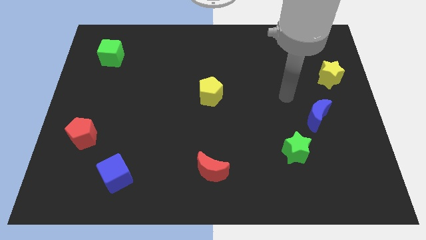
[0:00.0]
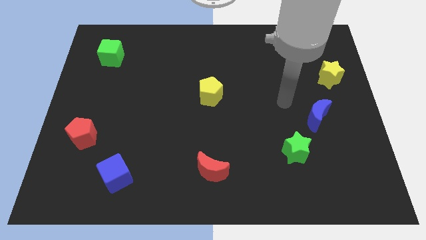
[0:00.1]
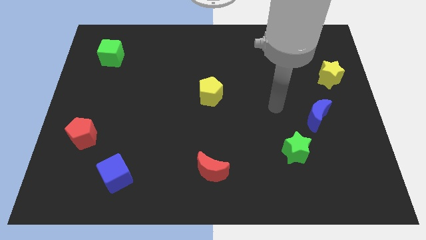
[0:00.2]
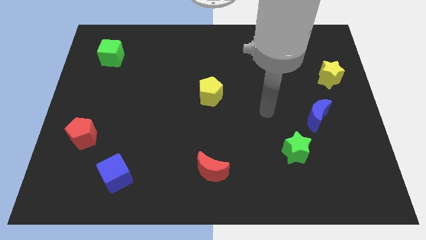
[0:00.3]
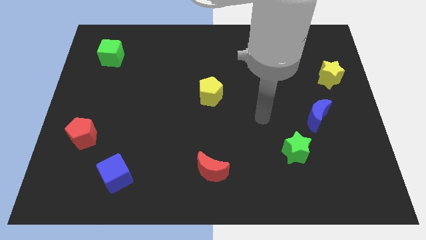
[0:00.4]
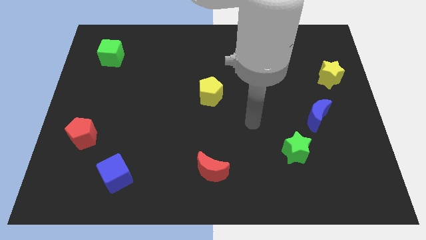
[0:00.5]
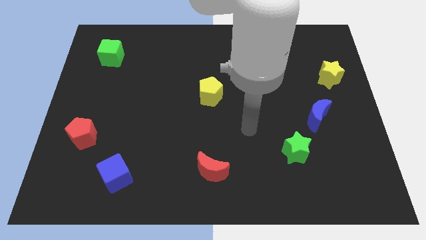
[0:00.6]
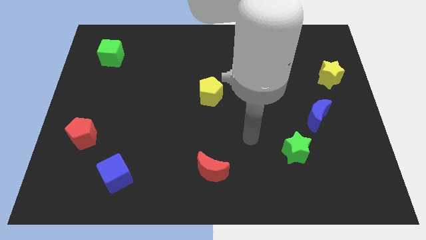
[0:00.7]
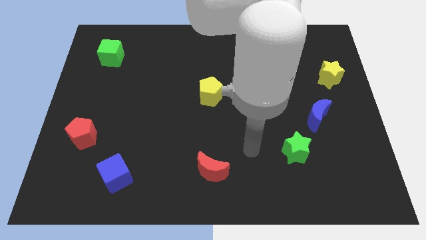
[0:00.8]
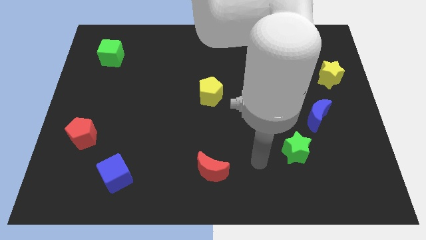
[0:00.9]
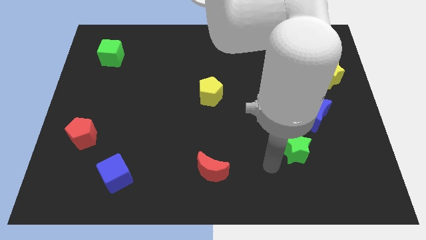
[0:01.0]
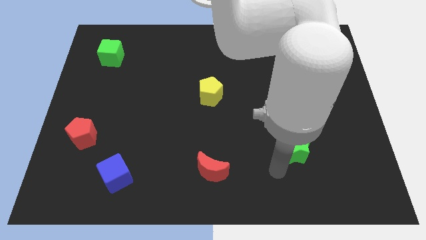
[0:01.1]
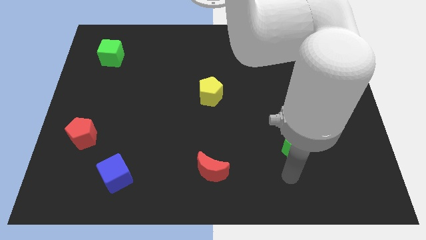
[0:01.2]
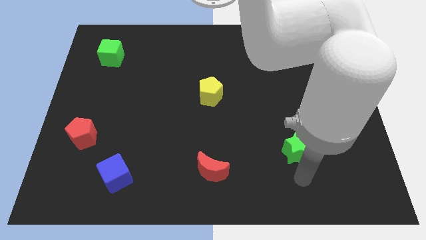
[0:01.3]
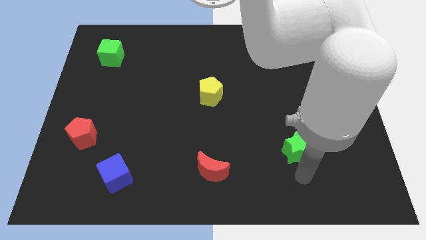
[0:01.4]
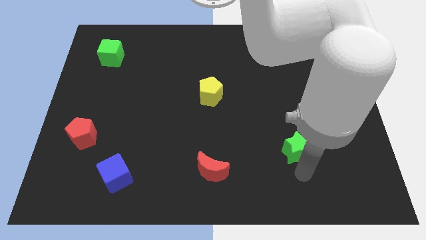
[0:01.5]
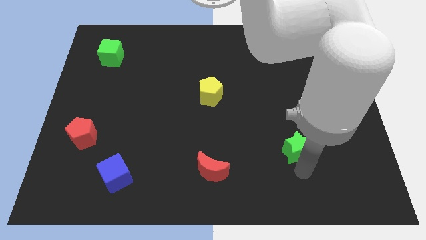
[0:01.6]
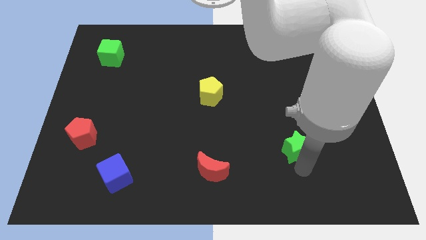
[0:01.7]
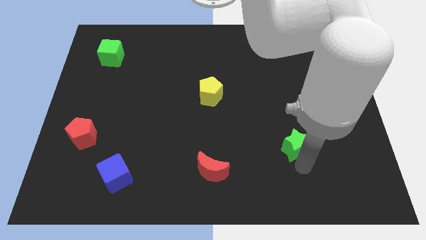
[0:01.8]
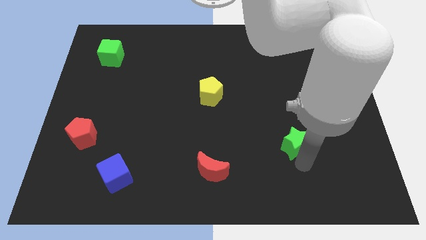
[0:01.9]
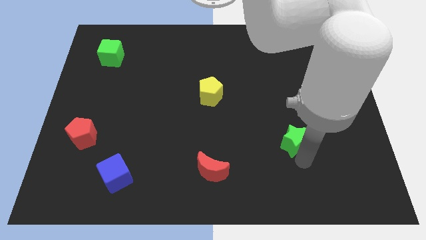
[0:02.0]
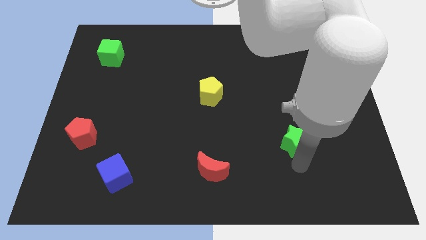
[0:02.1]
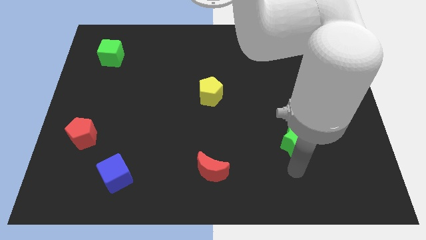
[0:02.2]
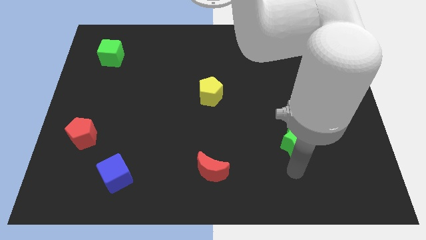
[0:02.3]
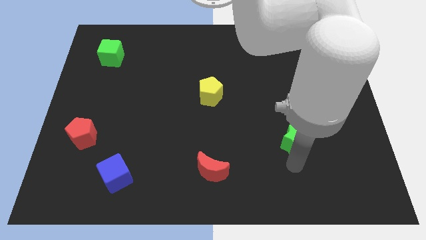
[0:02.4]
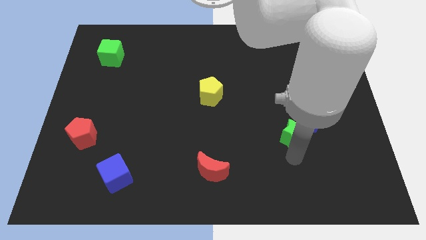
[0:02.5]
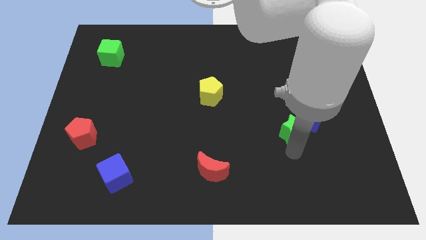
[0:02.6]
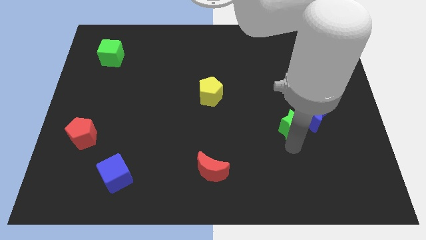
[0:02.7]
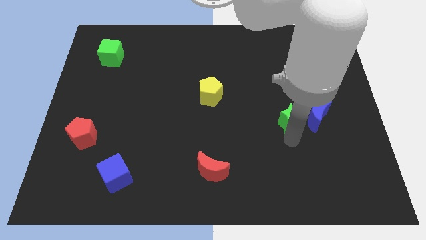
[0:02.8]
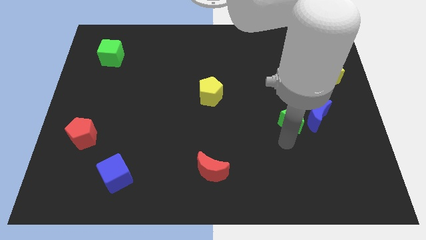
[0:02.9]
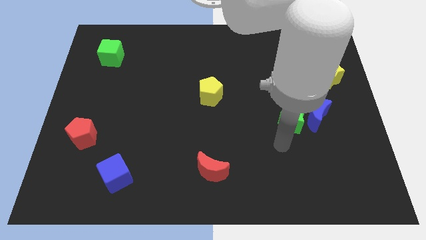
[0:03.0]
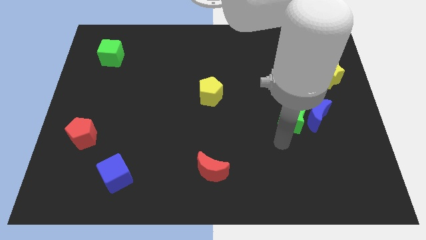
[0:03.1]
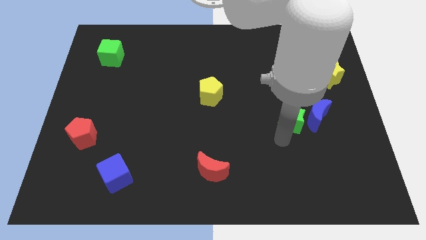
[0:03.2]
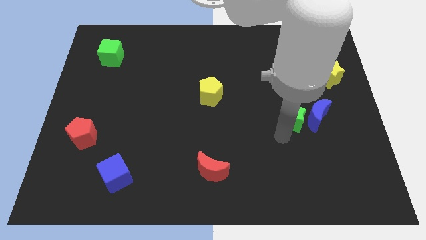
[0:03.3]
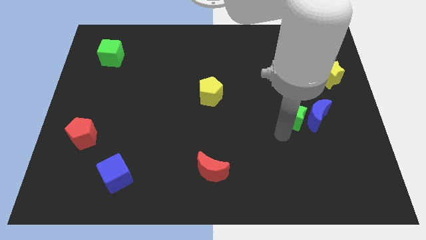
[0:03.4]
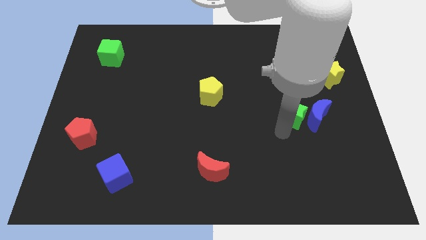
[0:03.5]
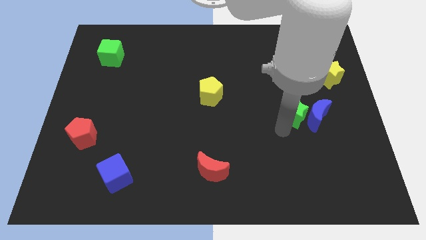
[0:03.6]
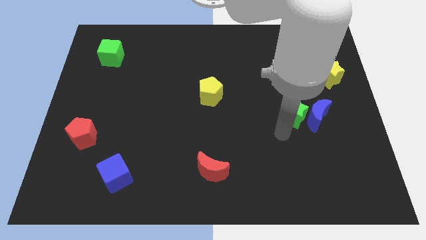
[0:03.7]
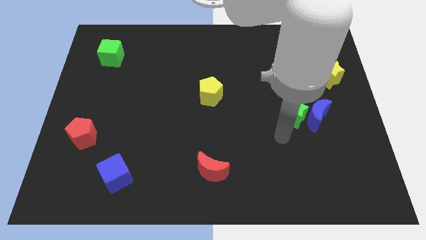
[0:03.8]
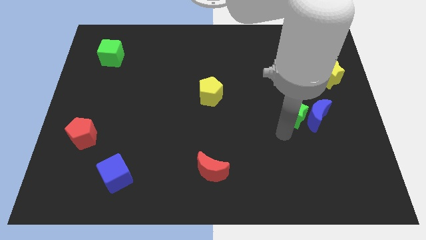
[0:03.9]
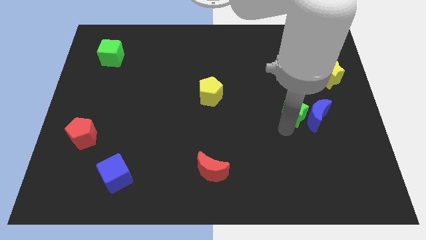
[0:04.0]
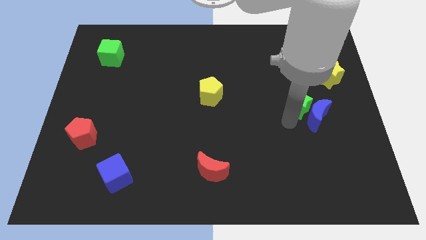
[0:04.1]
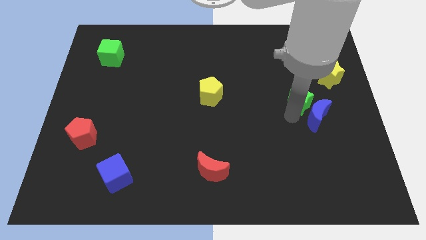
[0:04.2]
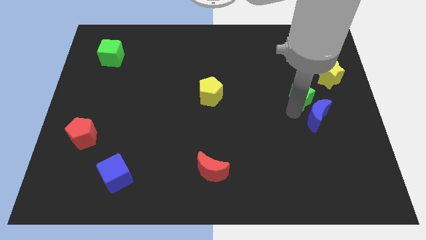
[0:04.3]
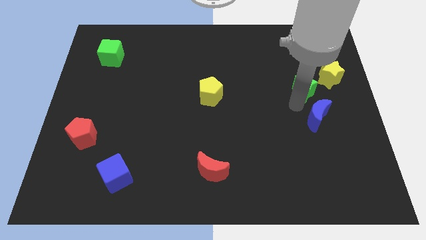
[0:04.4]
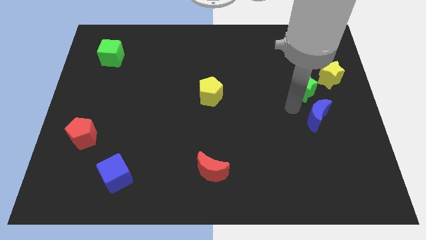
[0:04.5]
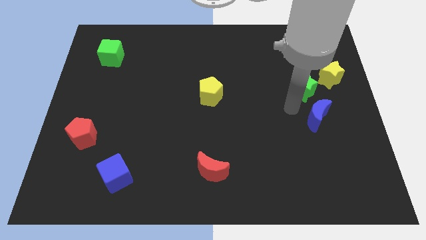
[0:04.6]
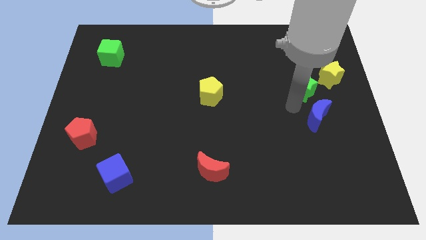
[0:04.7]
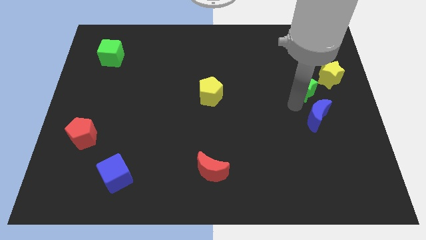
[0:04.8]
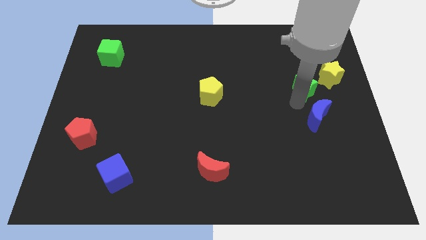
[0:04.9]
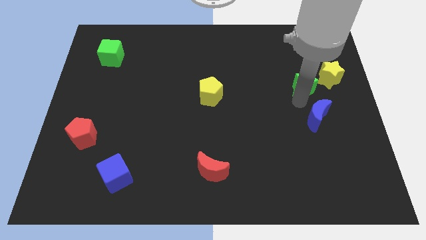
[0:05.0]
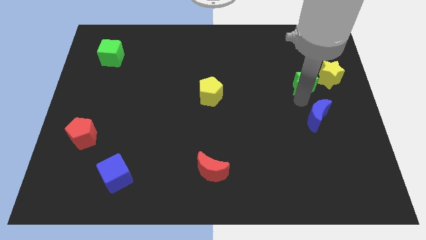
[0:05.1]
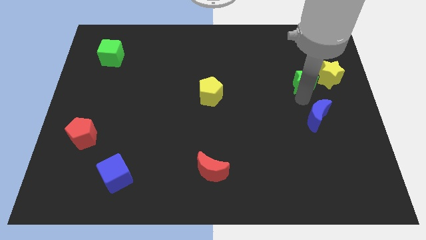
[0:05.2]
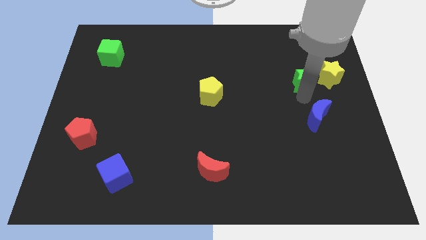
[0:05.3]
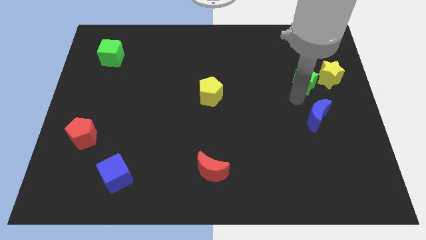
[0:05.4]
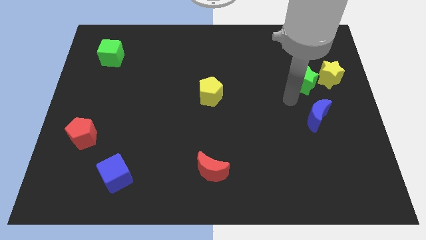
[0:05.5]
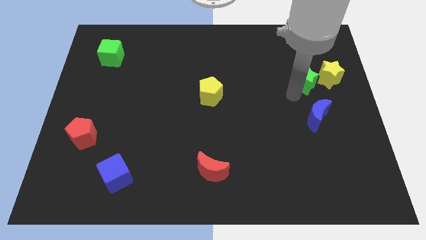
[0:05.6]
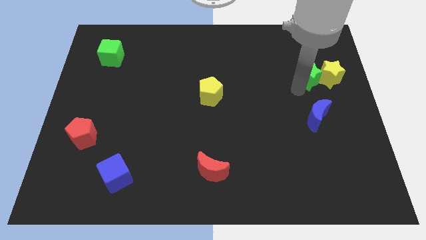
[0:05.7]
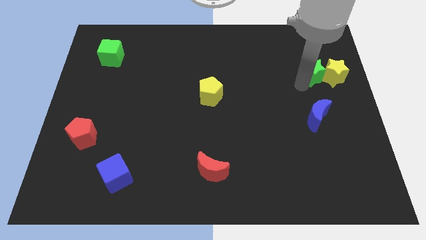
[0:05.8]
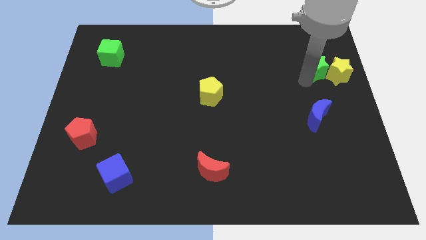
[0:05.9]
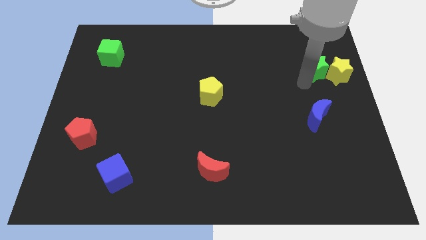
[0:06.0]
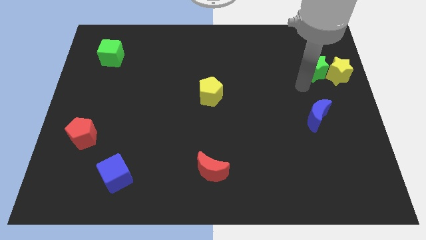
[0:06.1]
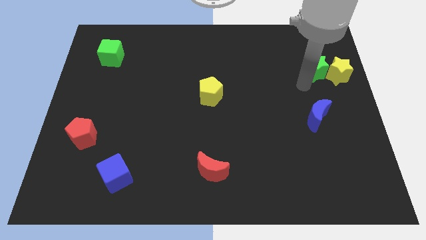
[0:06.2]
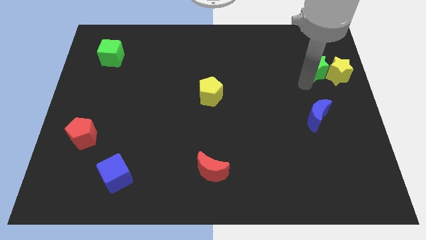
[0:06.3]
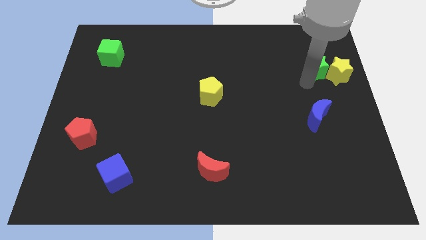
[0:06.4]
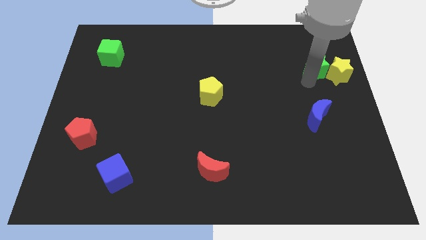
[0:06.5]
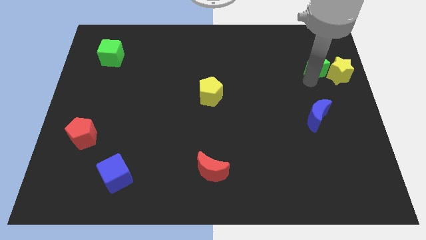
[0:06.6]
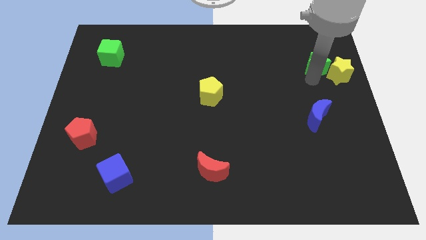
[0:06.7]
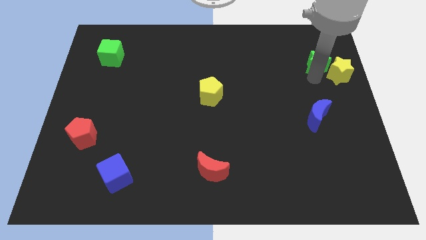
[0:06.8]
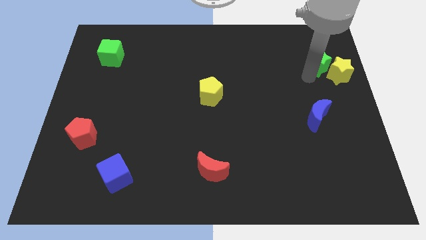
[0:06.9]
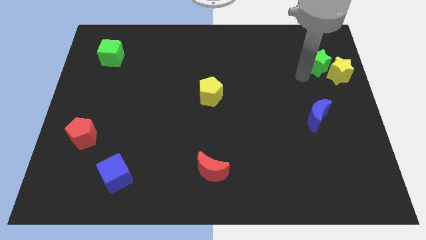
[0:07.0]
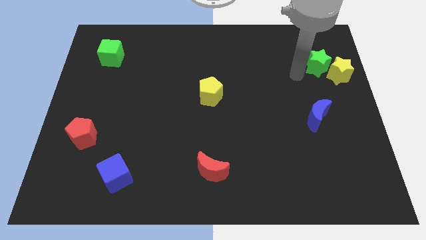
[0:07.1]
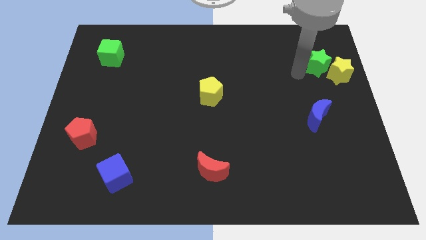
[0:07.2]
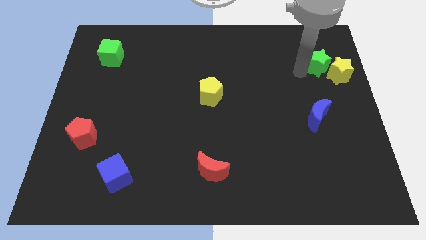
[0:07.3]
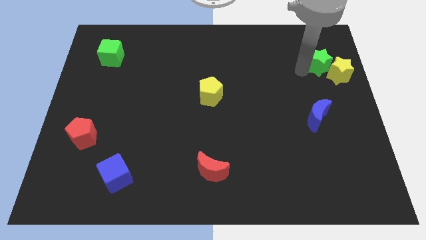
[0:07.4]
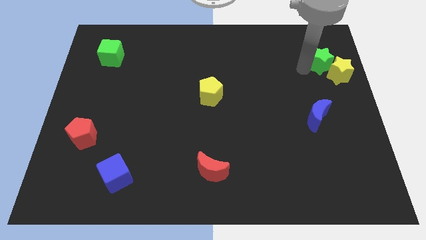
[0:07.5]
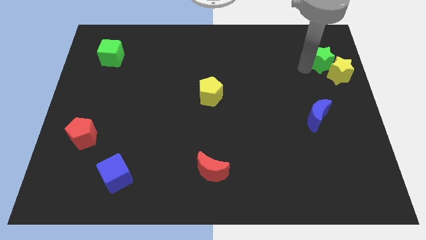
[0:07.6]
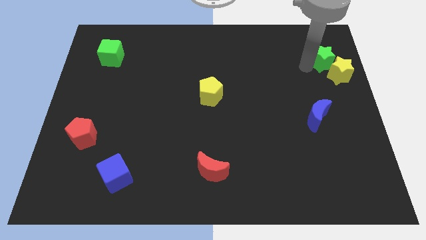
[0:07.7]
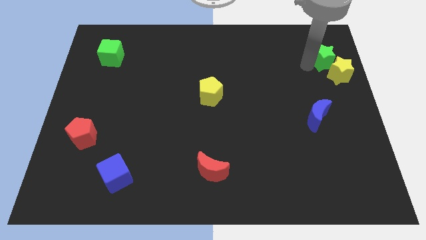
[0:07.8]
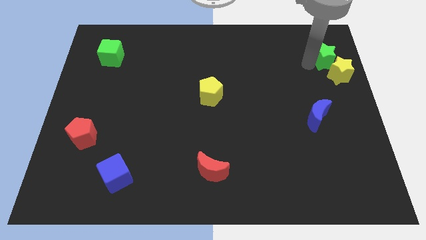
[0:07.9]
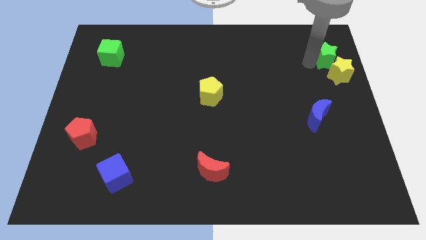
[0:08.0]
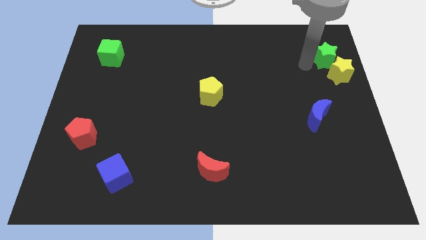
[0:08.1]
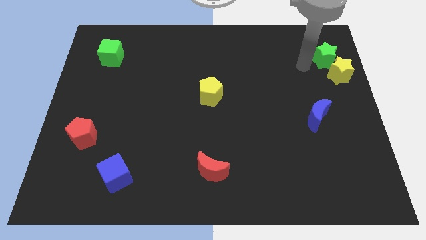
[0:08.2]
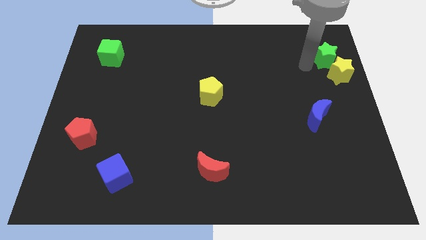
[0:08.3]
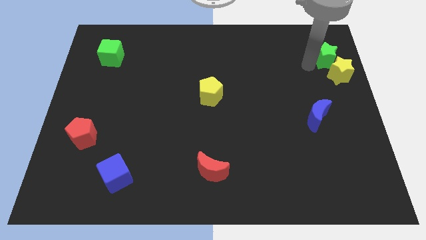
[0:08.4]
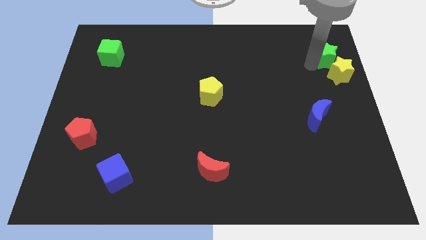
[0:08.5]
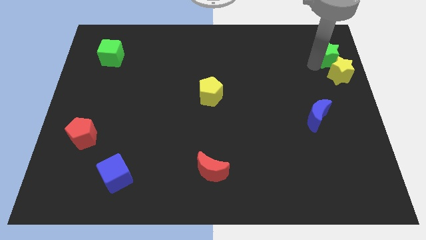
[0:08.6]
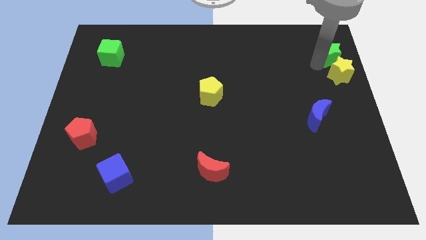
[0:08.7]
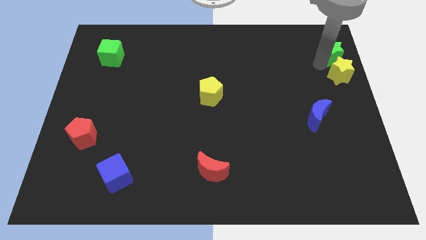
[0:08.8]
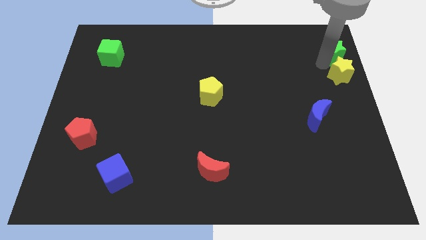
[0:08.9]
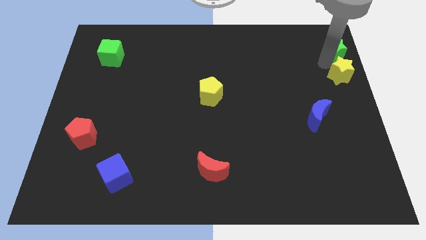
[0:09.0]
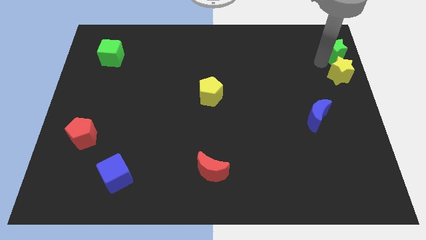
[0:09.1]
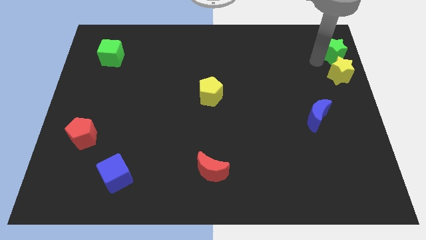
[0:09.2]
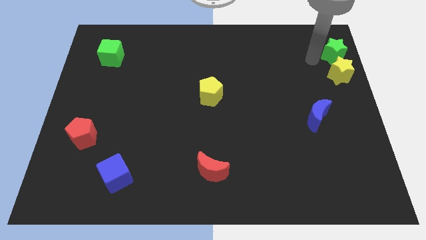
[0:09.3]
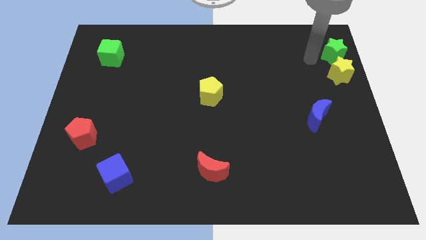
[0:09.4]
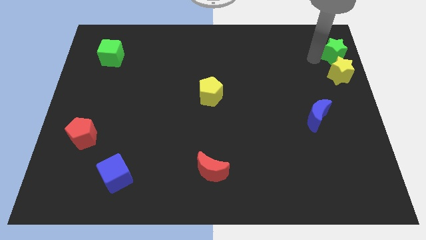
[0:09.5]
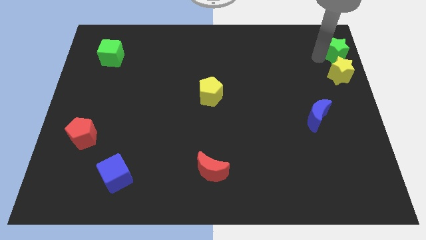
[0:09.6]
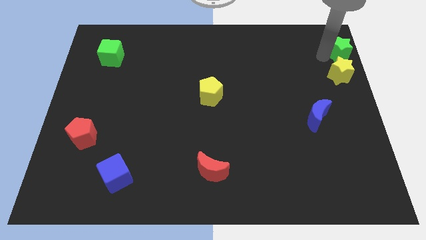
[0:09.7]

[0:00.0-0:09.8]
move the green star to the top right
